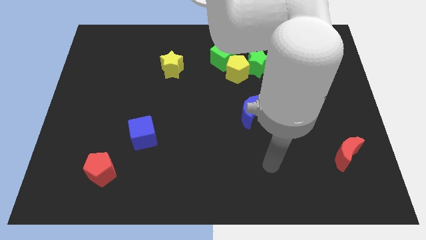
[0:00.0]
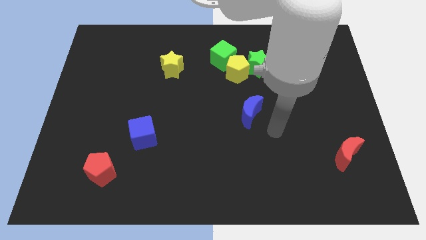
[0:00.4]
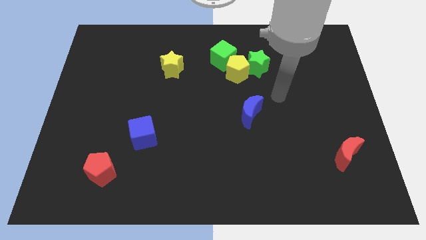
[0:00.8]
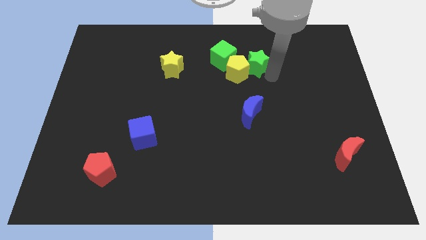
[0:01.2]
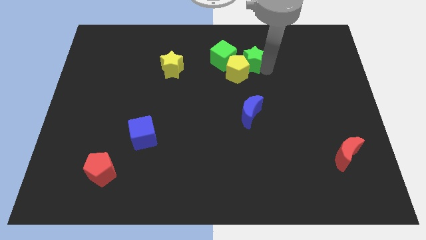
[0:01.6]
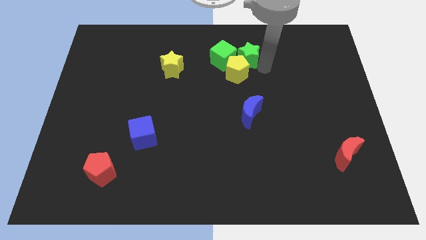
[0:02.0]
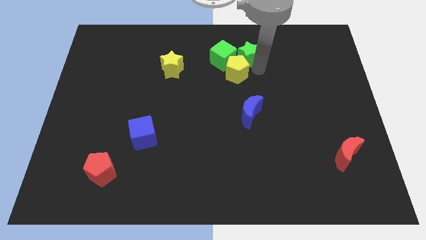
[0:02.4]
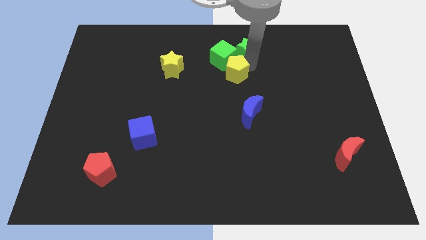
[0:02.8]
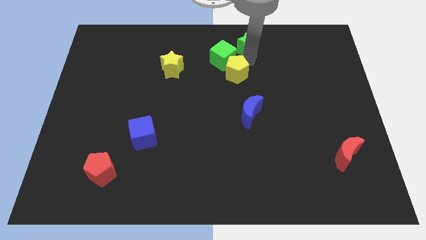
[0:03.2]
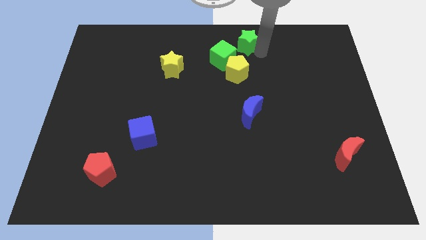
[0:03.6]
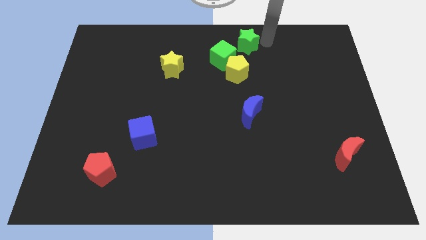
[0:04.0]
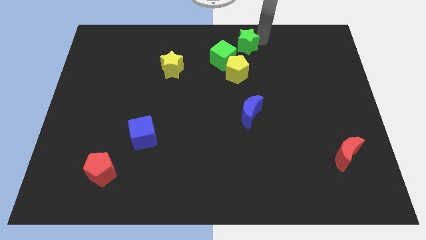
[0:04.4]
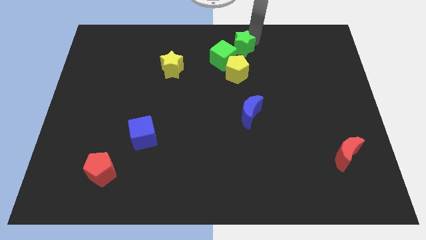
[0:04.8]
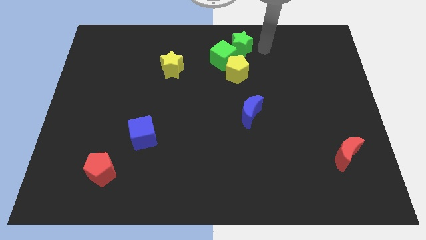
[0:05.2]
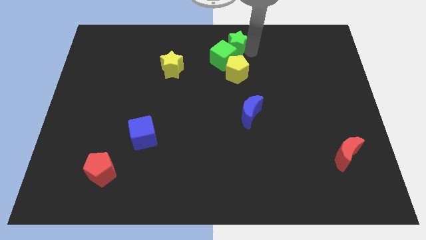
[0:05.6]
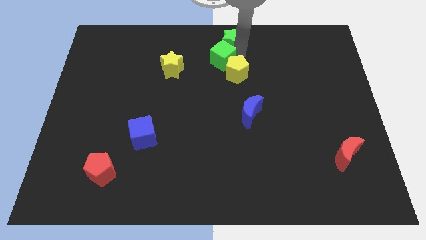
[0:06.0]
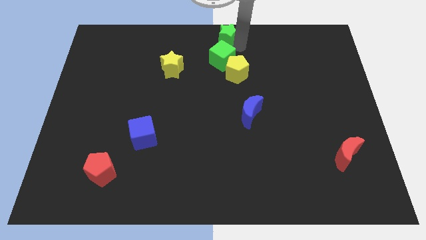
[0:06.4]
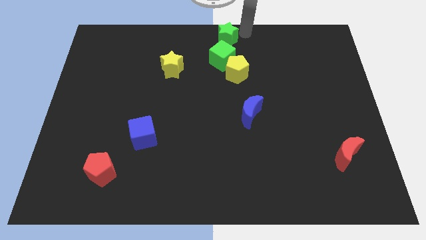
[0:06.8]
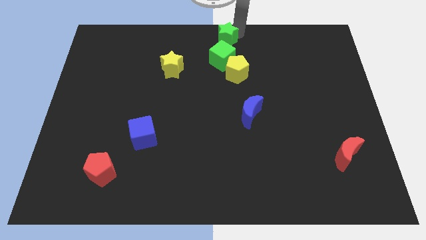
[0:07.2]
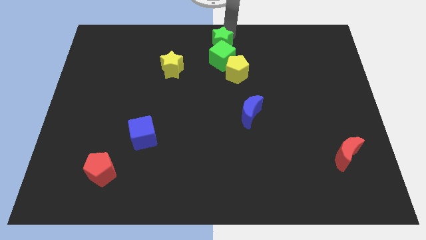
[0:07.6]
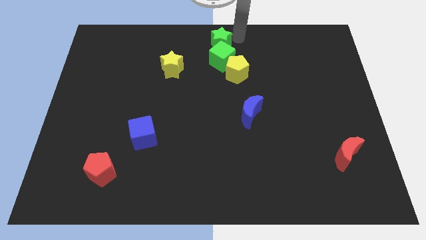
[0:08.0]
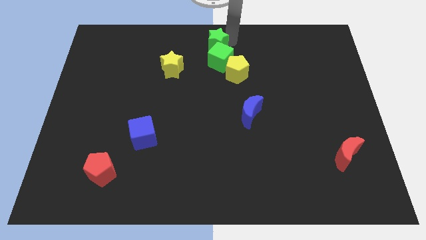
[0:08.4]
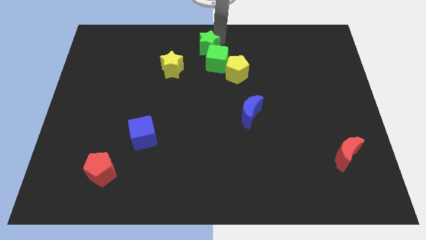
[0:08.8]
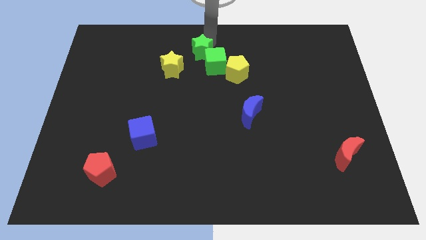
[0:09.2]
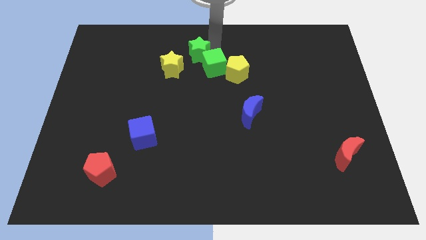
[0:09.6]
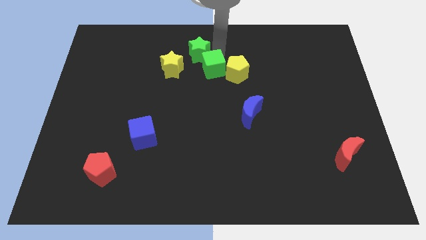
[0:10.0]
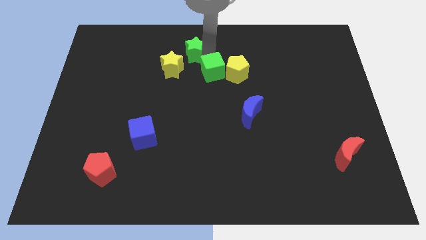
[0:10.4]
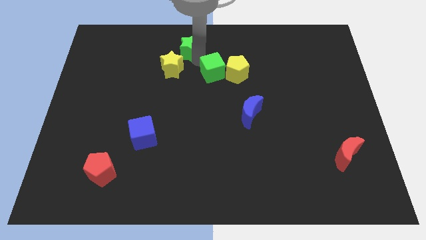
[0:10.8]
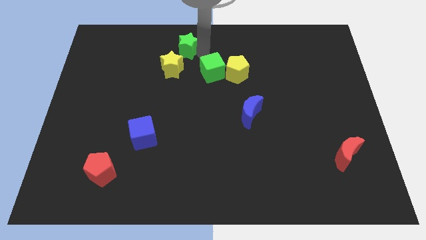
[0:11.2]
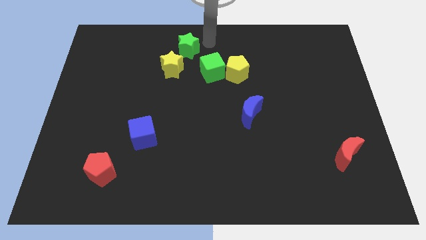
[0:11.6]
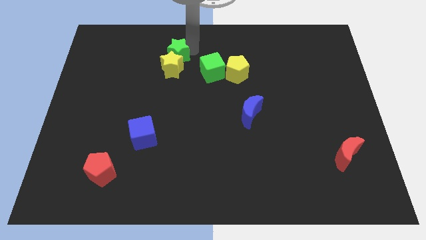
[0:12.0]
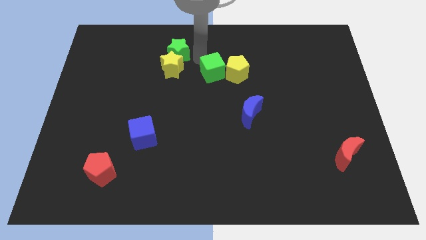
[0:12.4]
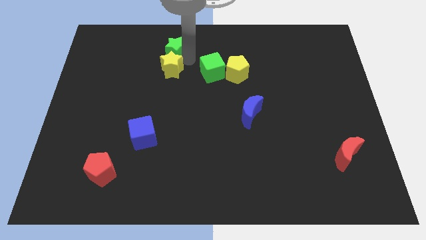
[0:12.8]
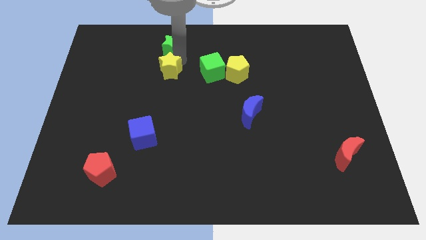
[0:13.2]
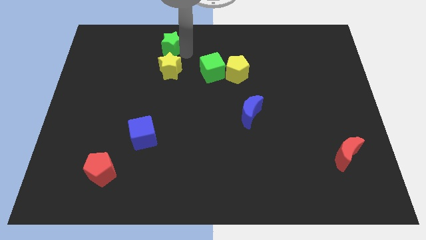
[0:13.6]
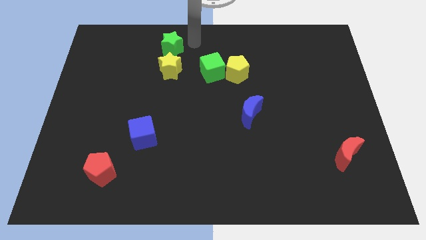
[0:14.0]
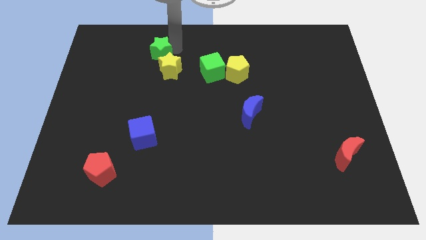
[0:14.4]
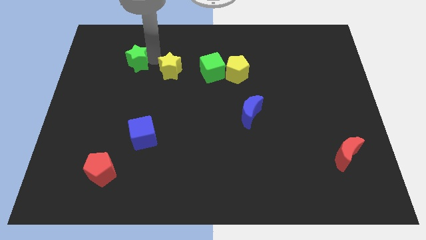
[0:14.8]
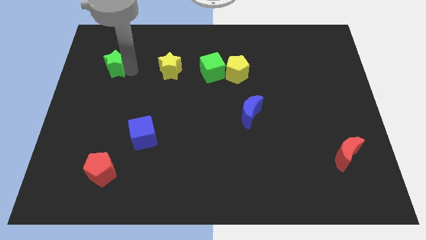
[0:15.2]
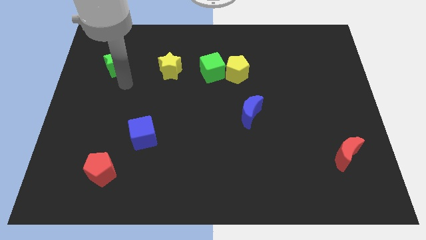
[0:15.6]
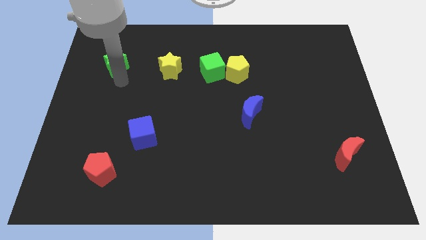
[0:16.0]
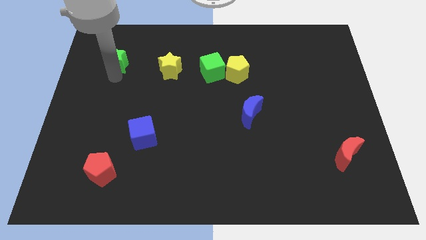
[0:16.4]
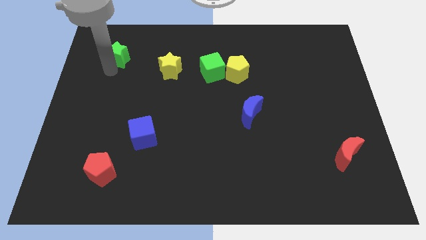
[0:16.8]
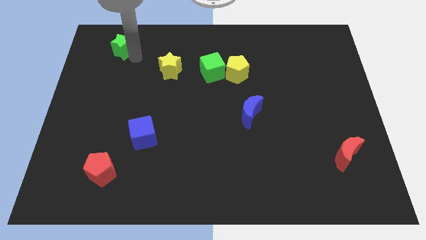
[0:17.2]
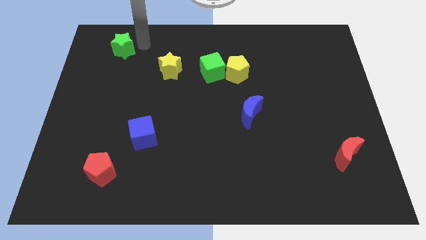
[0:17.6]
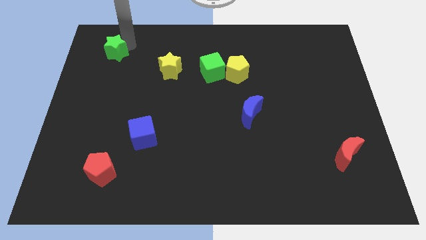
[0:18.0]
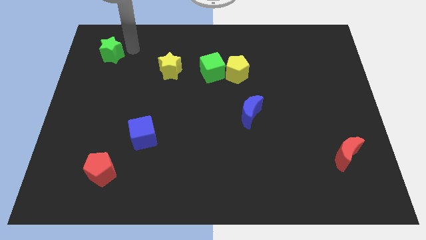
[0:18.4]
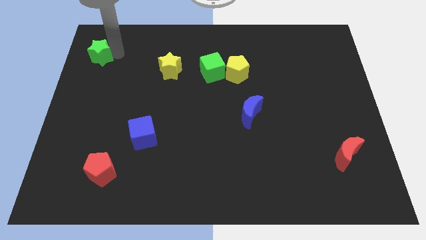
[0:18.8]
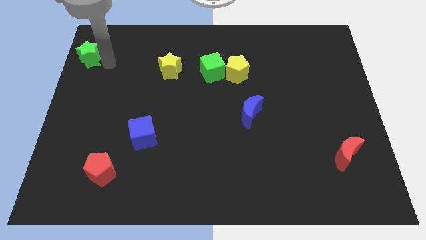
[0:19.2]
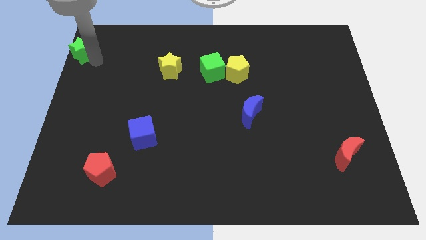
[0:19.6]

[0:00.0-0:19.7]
slide the green star to the upper left corner

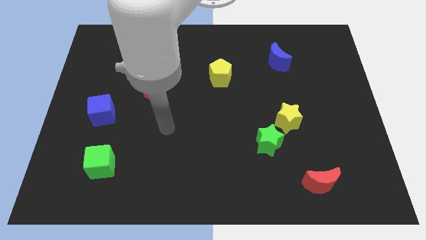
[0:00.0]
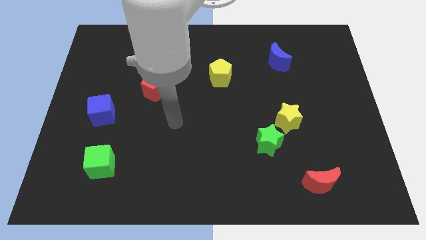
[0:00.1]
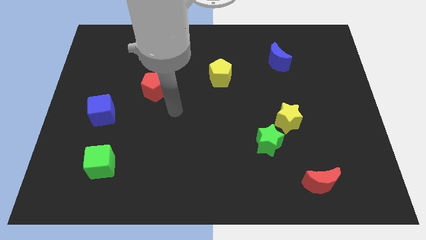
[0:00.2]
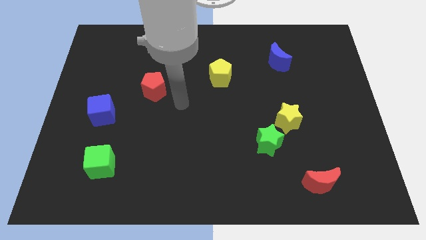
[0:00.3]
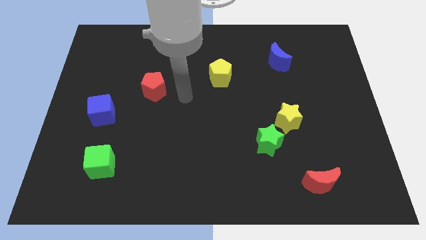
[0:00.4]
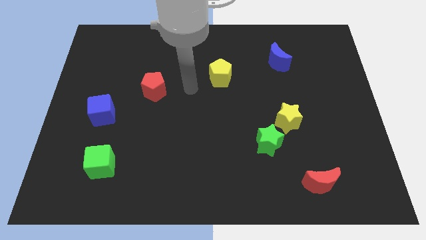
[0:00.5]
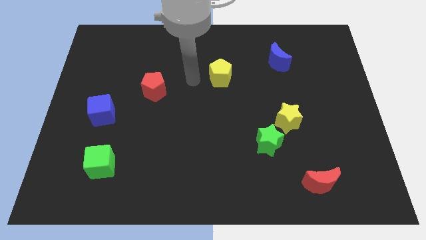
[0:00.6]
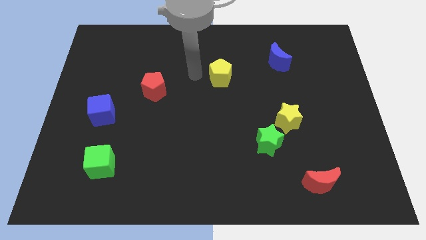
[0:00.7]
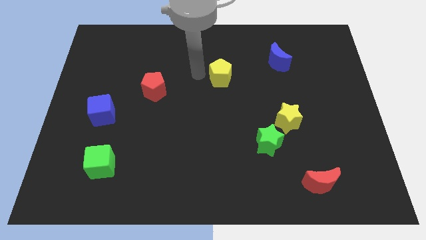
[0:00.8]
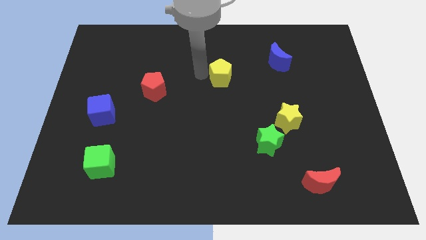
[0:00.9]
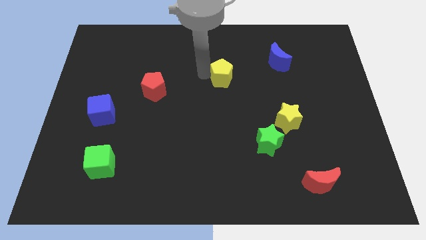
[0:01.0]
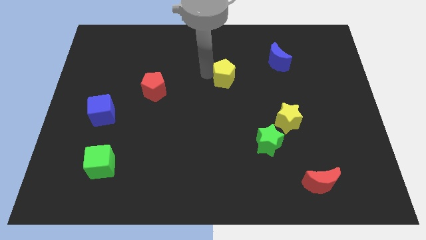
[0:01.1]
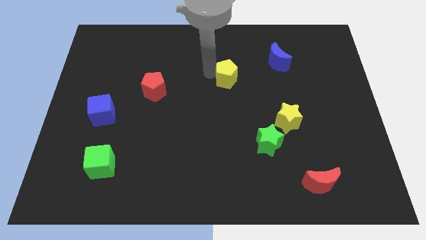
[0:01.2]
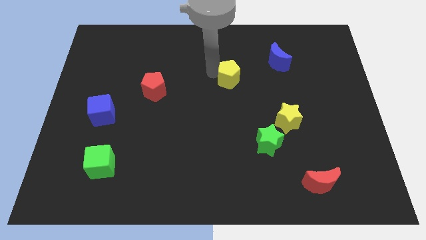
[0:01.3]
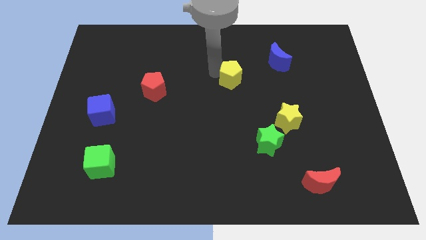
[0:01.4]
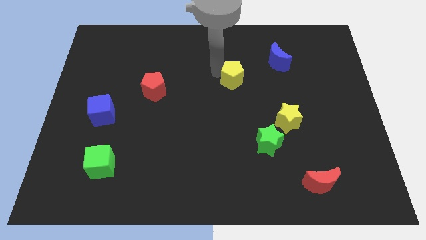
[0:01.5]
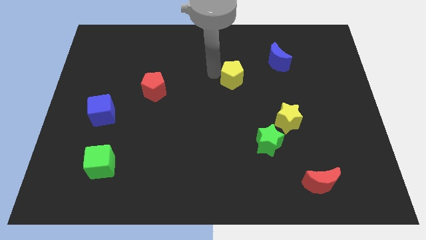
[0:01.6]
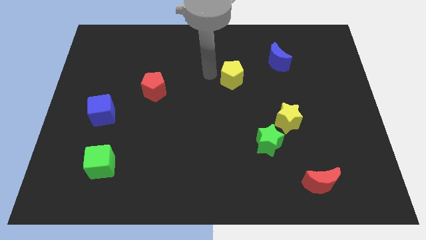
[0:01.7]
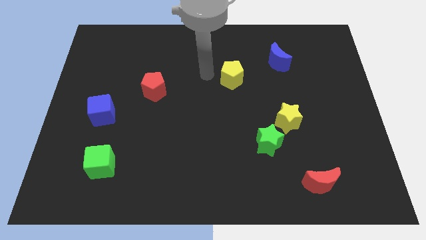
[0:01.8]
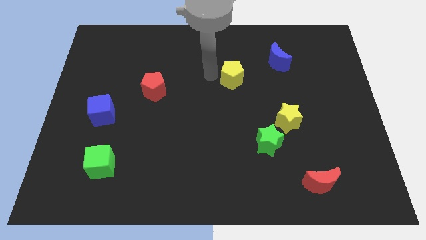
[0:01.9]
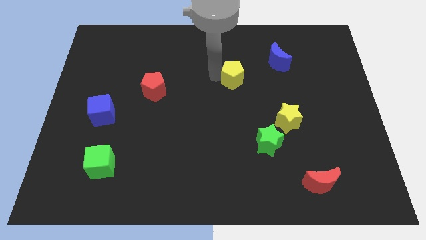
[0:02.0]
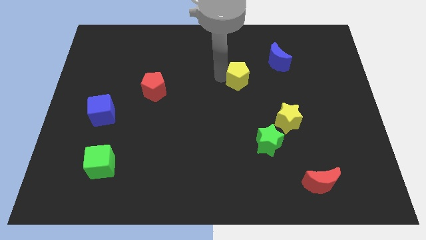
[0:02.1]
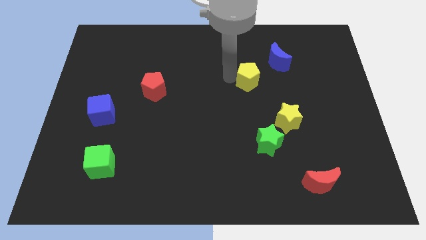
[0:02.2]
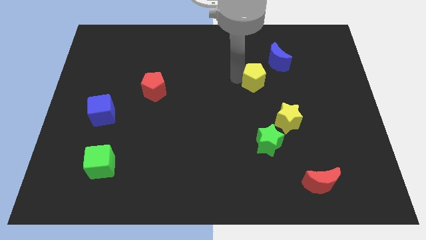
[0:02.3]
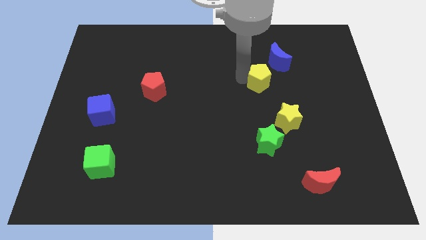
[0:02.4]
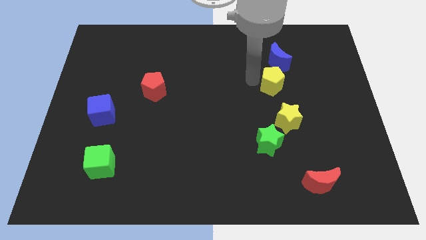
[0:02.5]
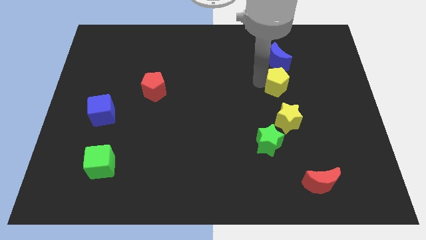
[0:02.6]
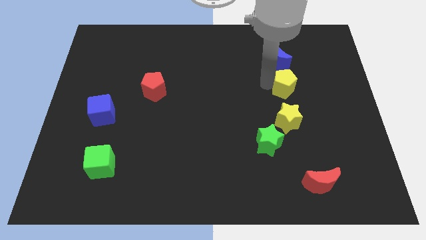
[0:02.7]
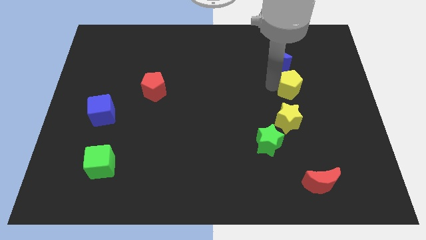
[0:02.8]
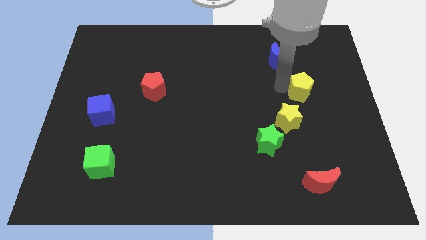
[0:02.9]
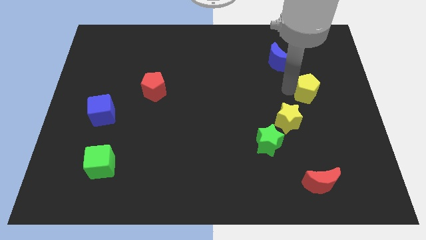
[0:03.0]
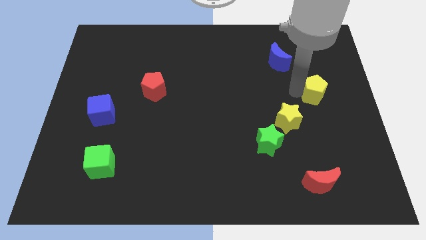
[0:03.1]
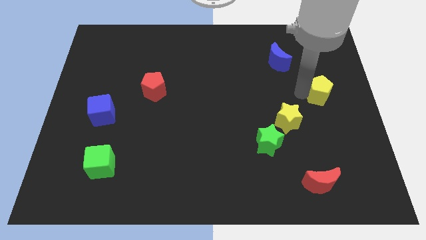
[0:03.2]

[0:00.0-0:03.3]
put the yellow pentagon to the center right
